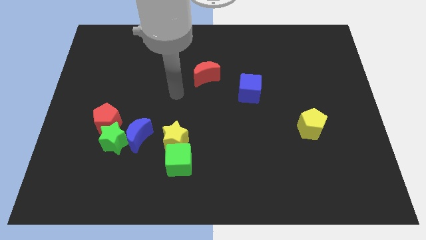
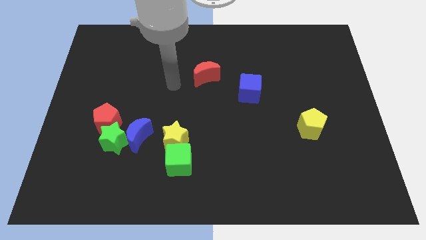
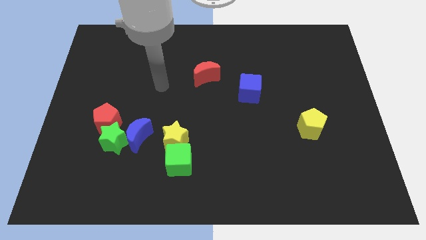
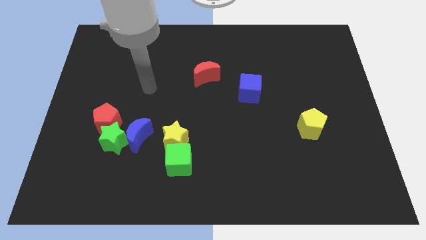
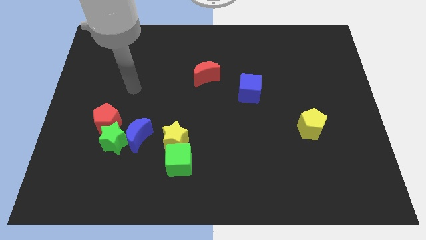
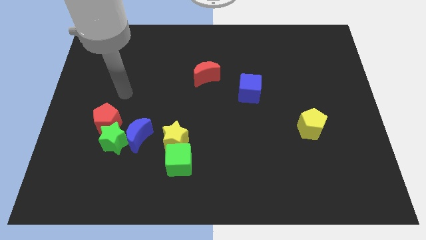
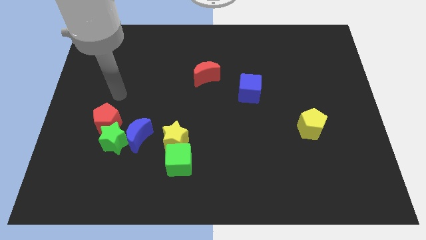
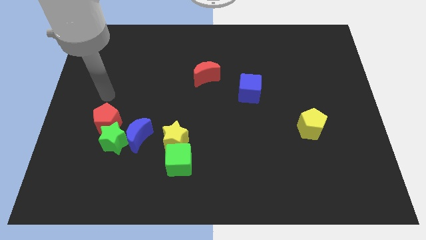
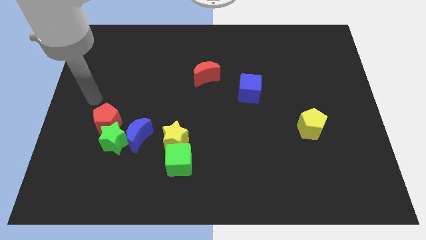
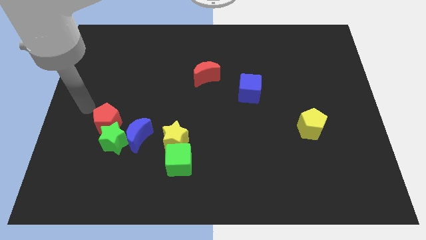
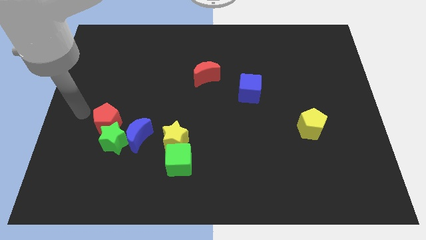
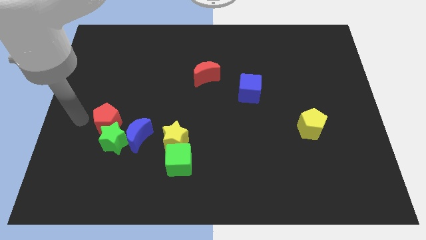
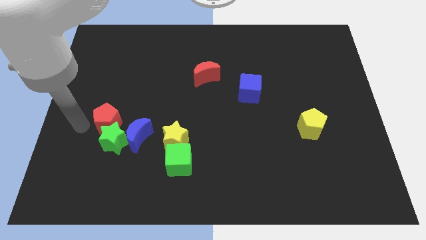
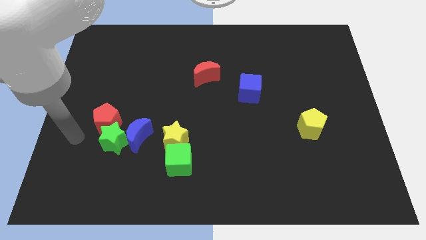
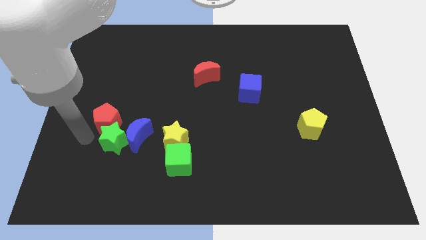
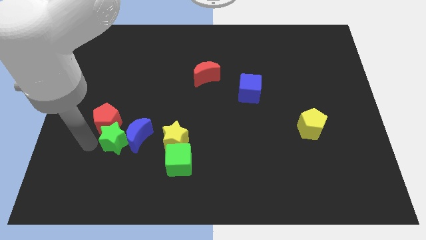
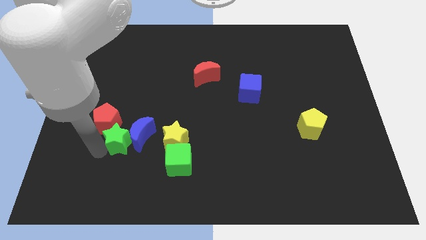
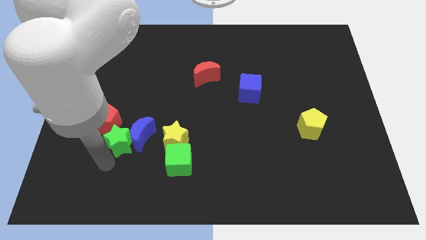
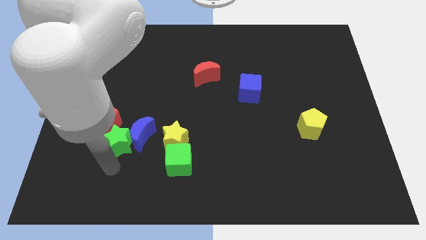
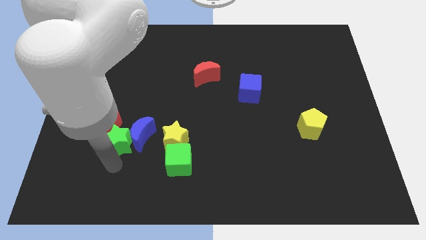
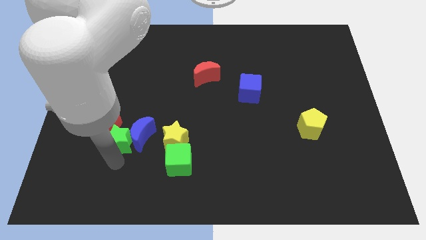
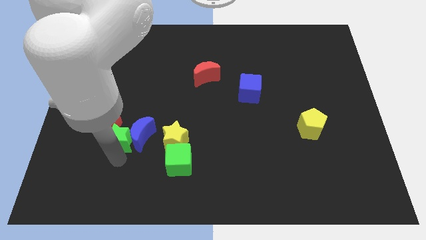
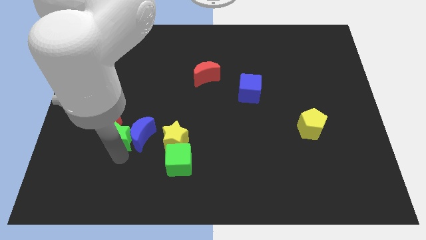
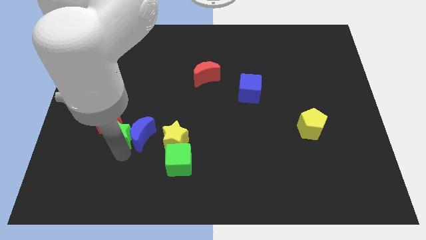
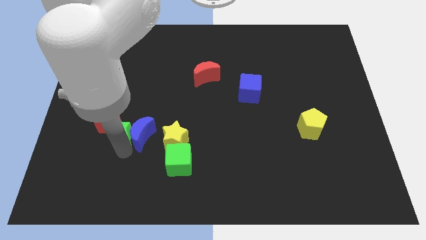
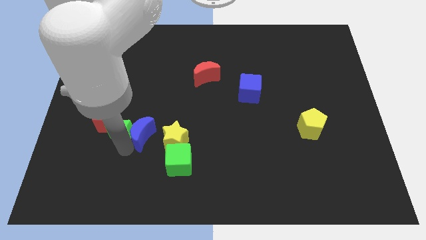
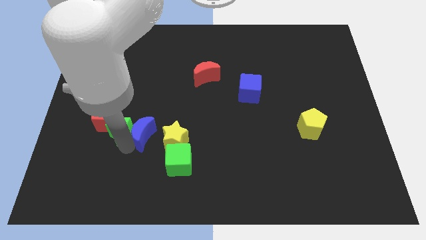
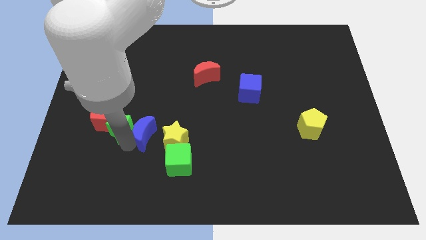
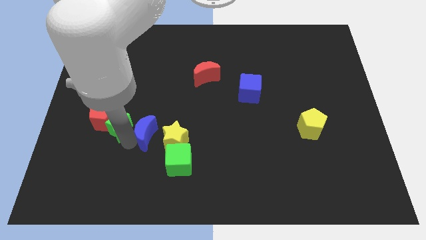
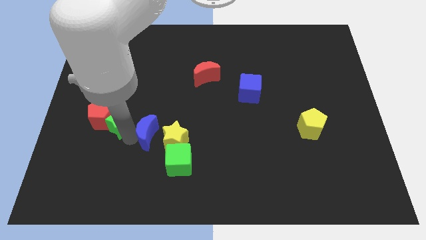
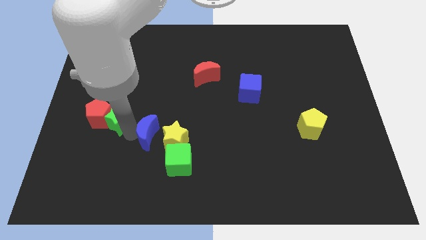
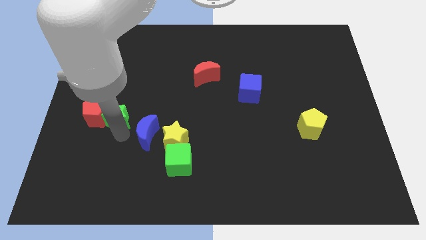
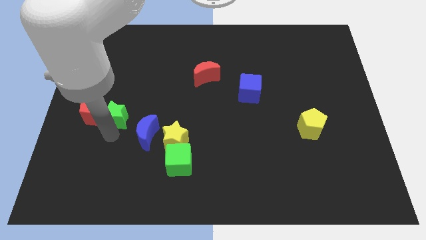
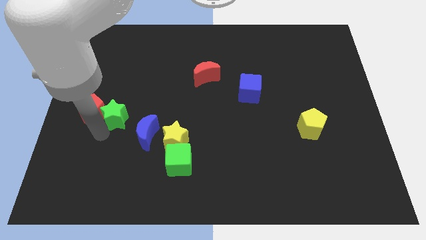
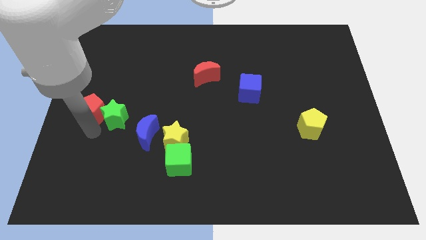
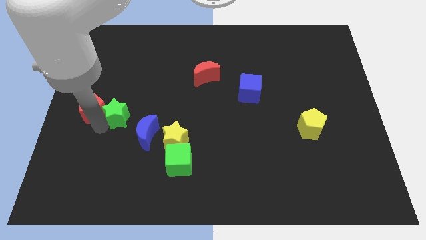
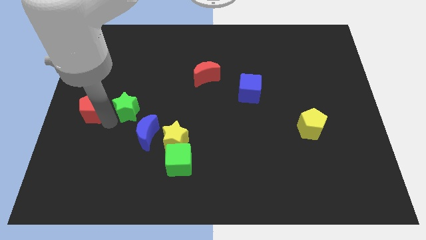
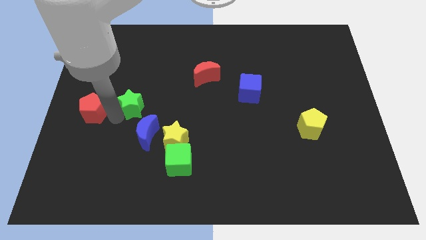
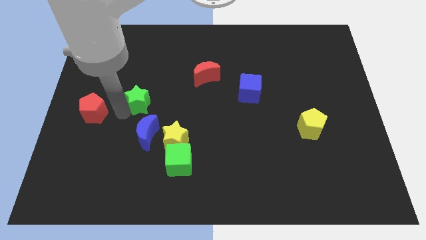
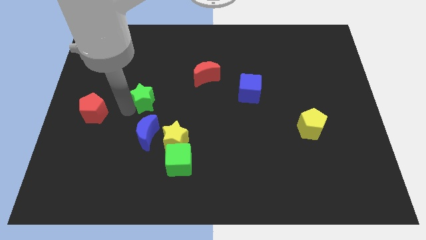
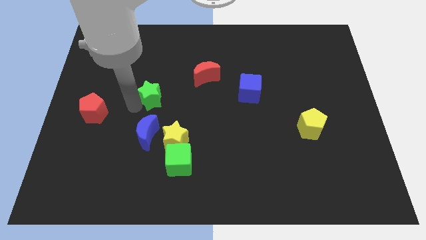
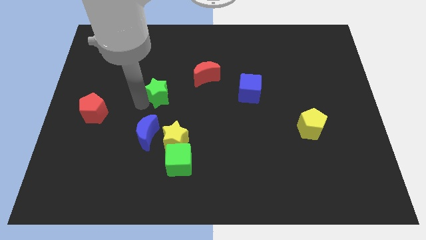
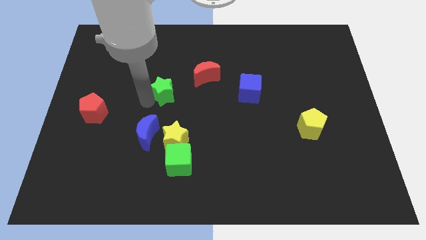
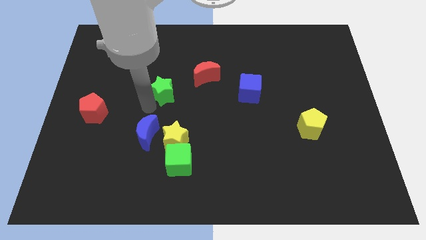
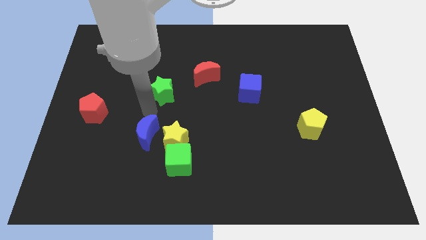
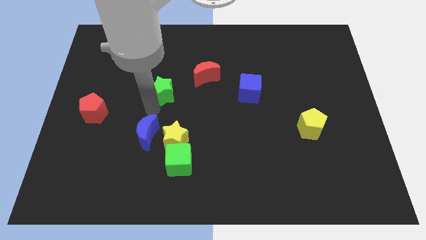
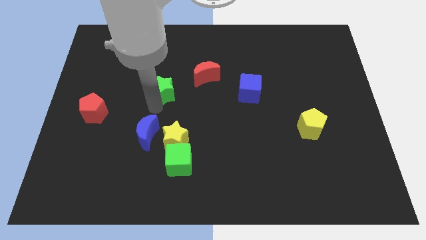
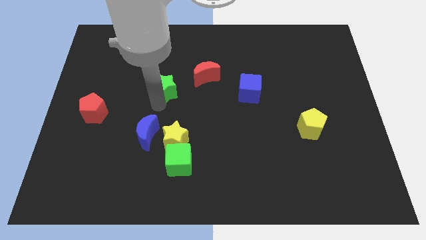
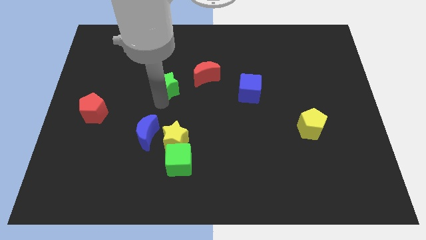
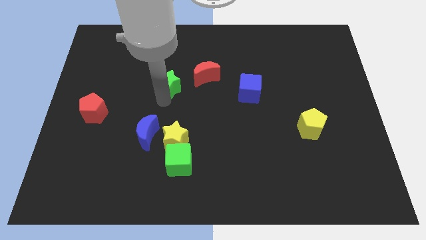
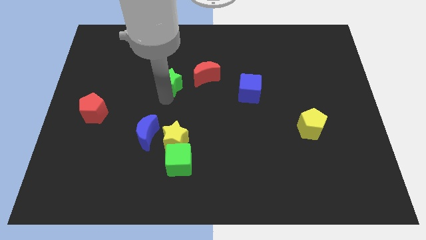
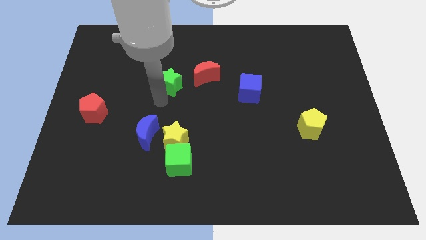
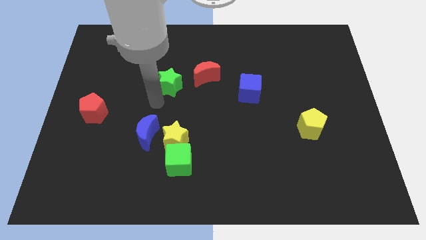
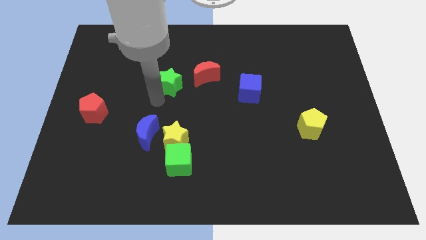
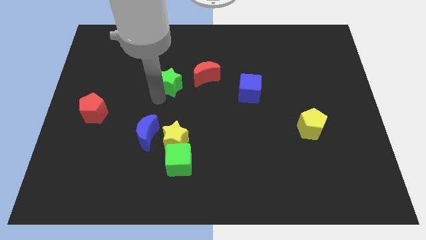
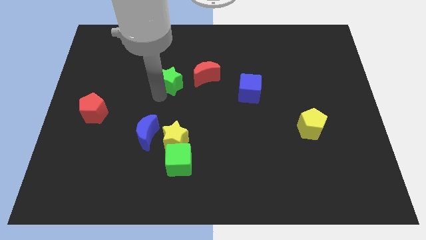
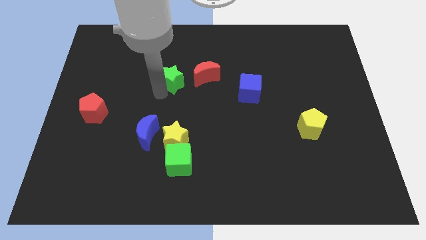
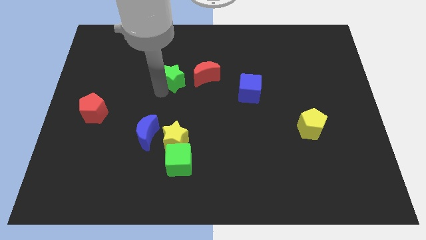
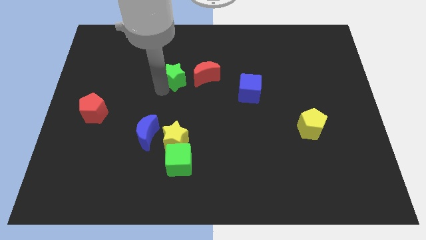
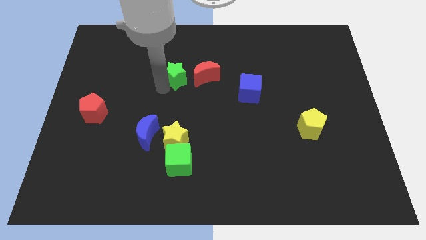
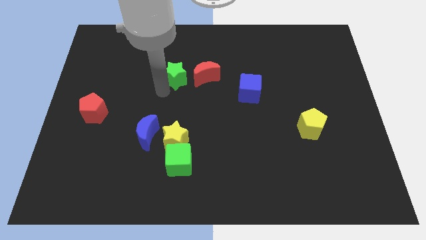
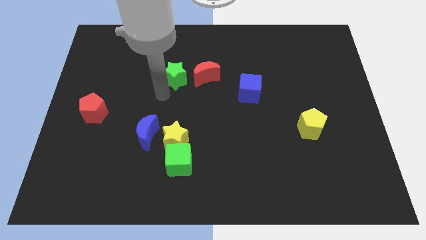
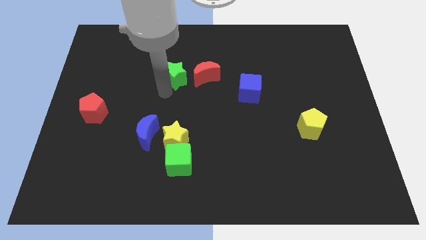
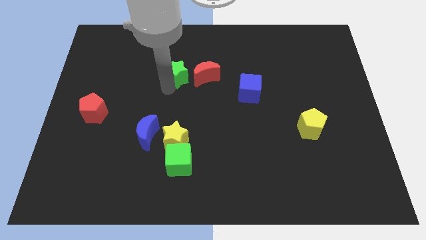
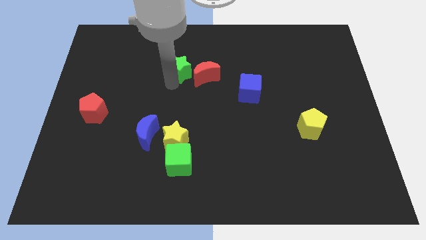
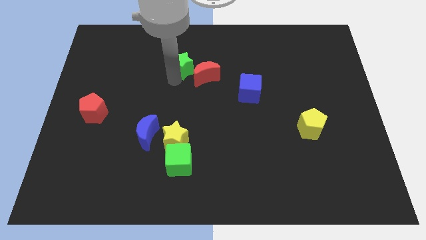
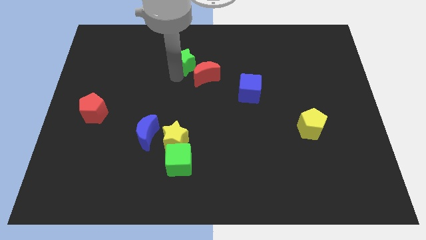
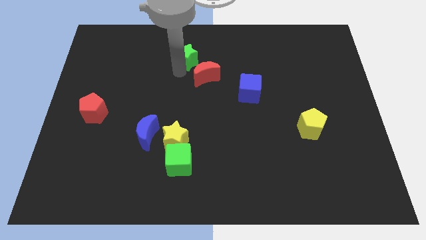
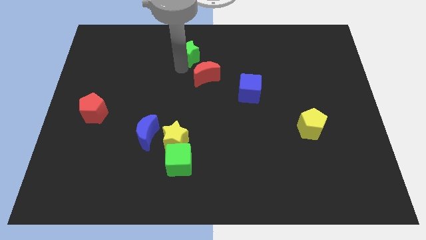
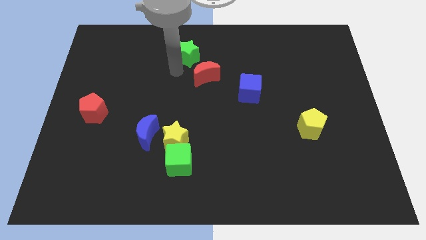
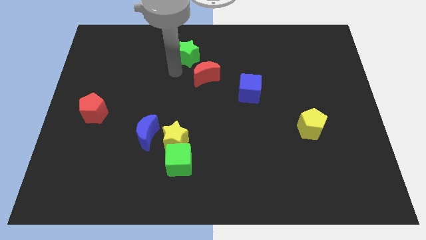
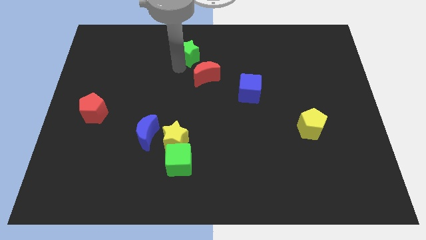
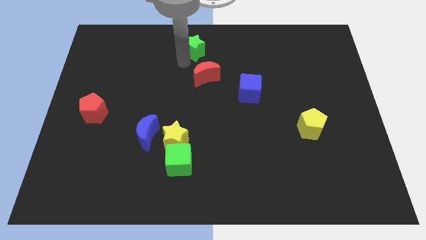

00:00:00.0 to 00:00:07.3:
put the green star to the towards your base
